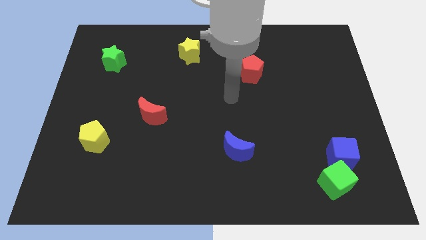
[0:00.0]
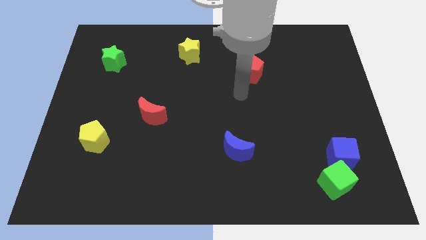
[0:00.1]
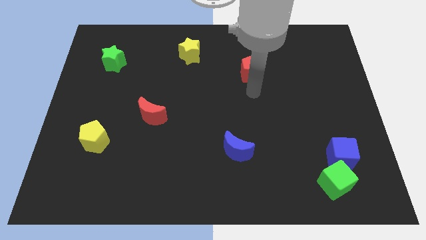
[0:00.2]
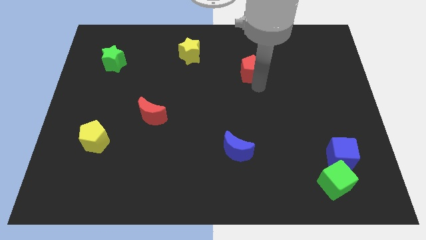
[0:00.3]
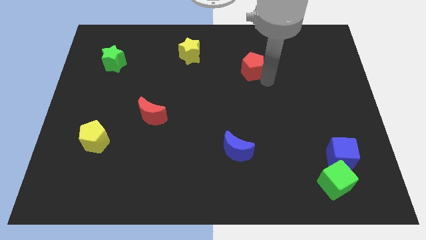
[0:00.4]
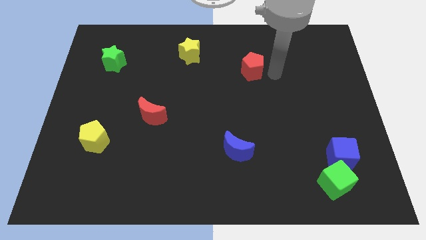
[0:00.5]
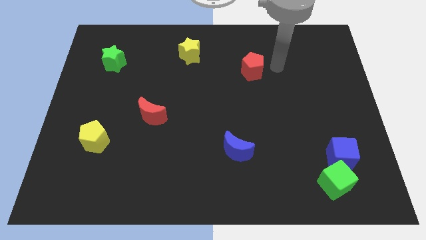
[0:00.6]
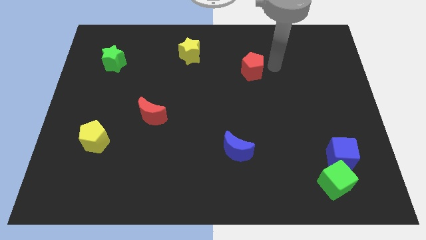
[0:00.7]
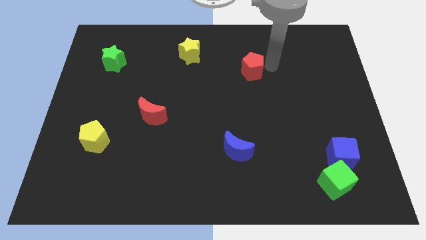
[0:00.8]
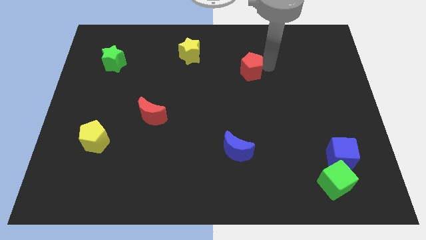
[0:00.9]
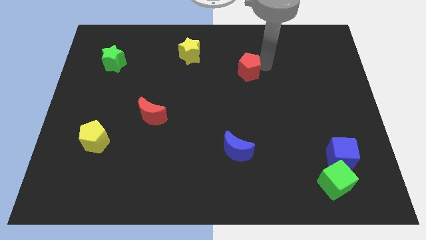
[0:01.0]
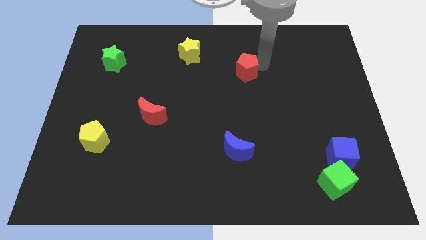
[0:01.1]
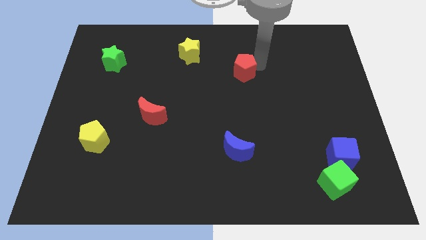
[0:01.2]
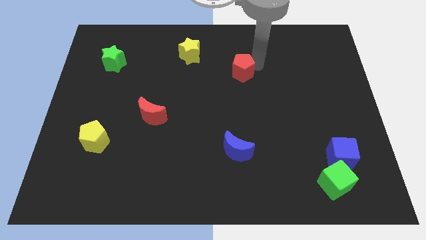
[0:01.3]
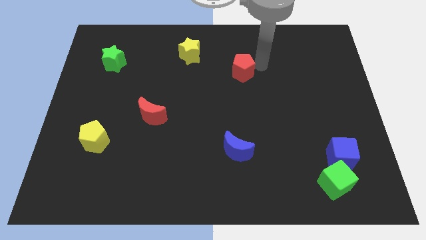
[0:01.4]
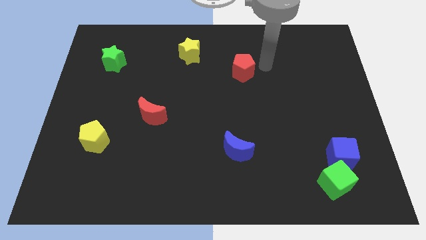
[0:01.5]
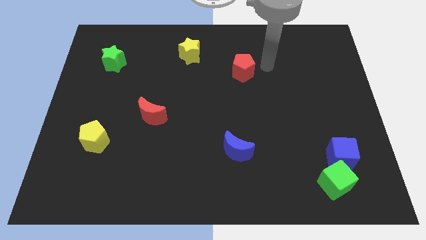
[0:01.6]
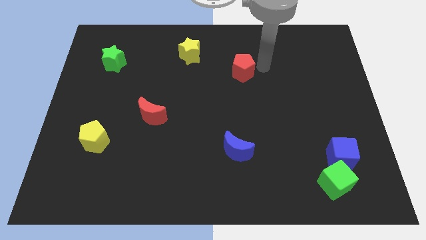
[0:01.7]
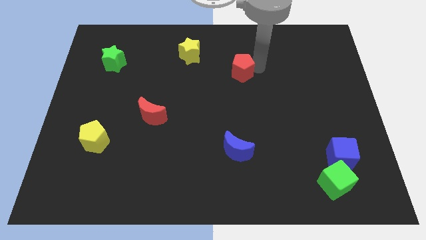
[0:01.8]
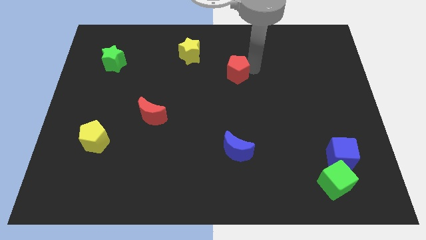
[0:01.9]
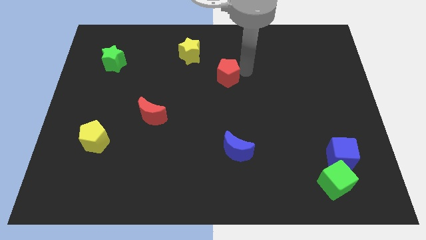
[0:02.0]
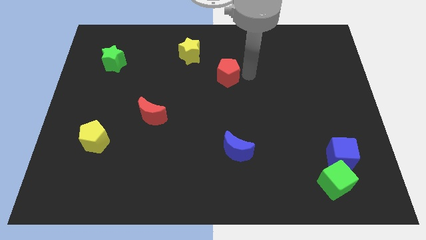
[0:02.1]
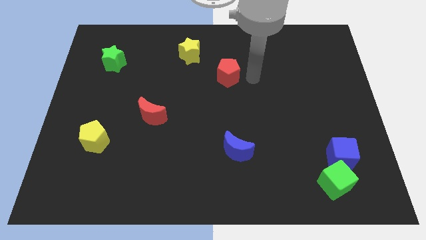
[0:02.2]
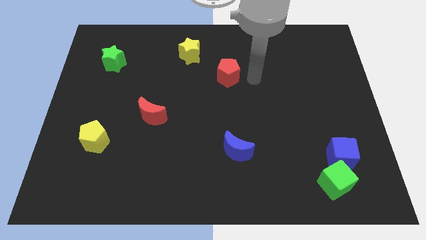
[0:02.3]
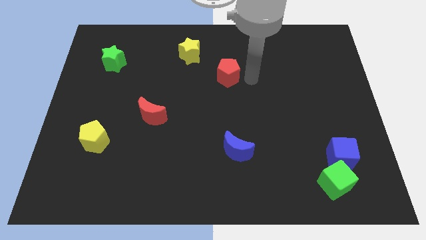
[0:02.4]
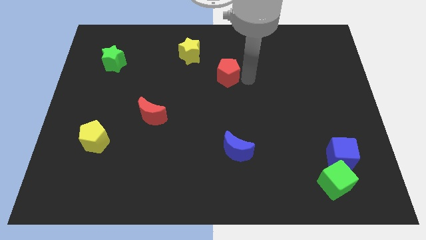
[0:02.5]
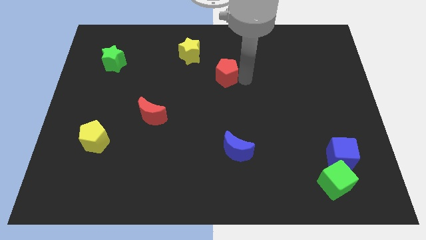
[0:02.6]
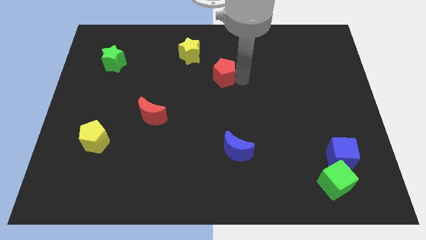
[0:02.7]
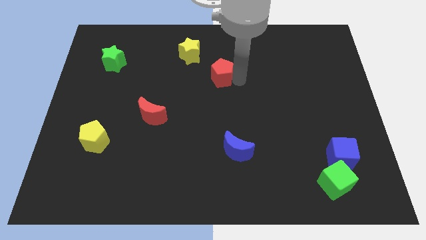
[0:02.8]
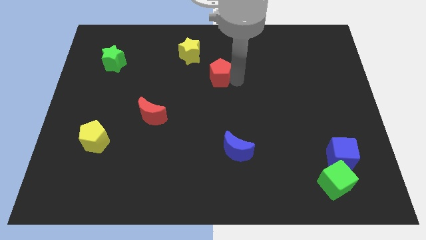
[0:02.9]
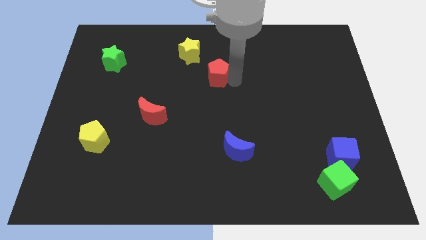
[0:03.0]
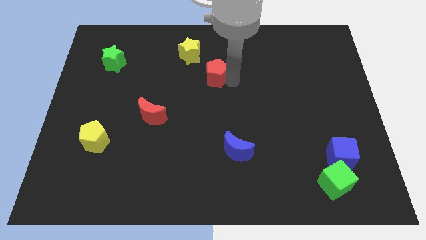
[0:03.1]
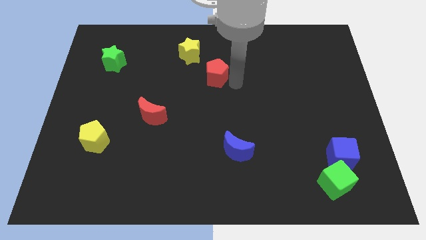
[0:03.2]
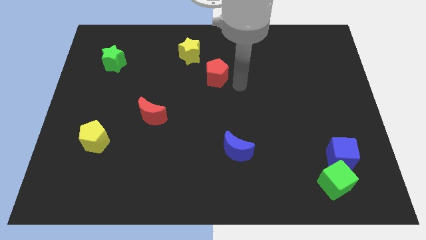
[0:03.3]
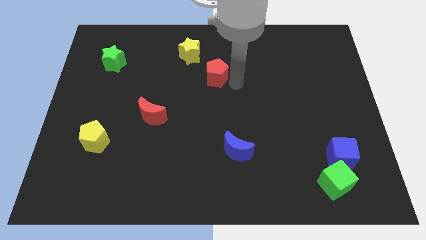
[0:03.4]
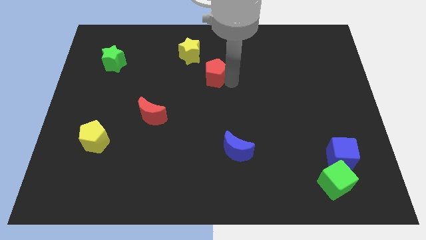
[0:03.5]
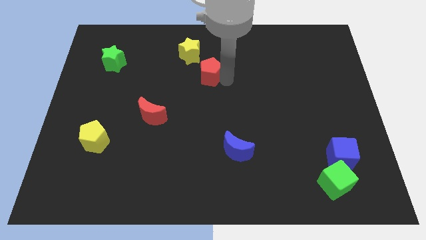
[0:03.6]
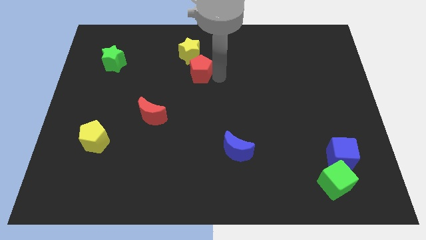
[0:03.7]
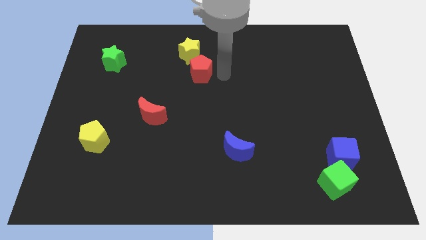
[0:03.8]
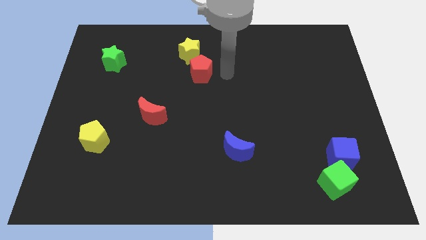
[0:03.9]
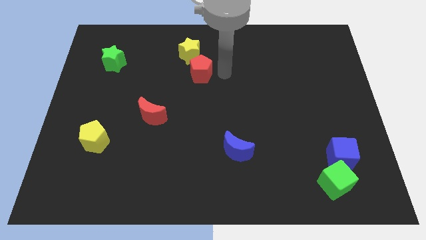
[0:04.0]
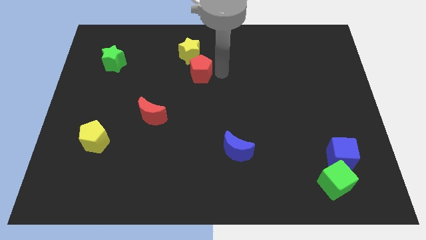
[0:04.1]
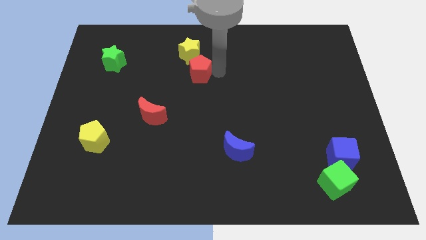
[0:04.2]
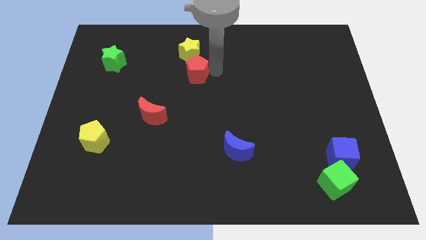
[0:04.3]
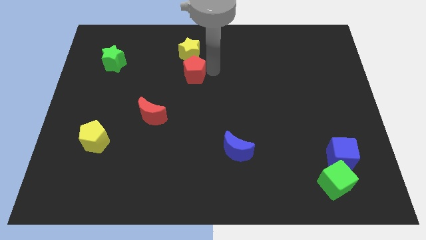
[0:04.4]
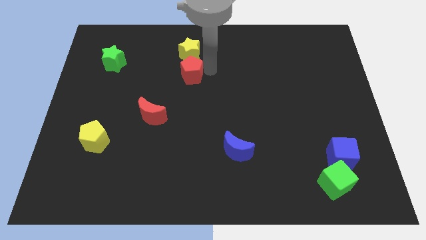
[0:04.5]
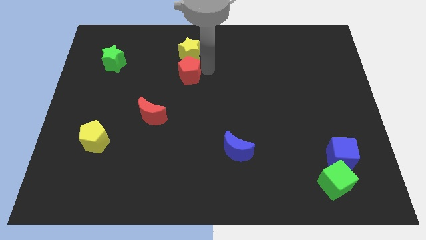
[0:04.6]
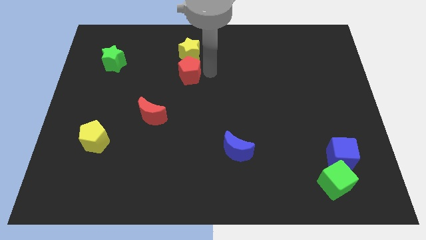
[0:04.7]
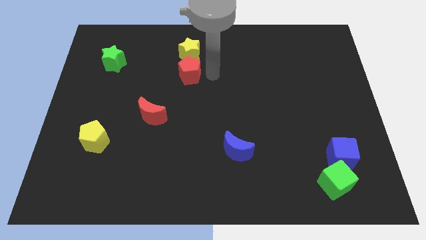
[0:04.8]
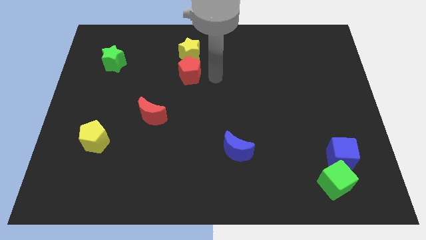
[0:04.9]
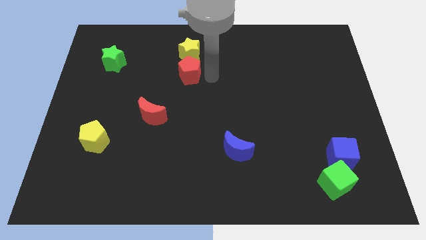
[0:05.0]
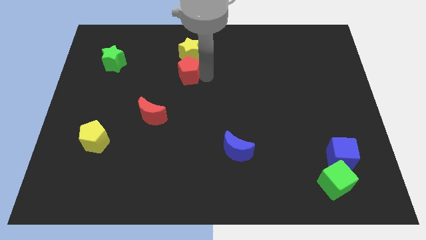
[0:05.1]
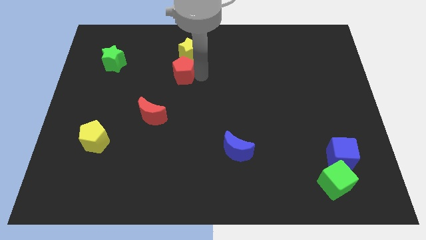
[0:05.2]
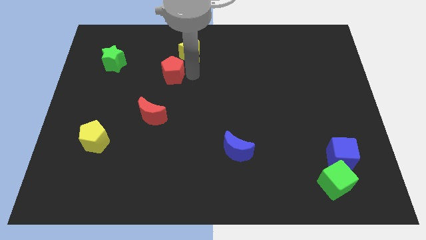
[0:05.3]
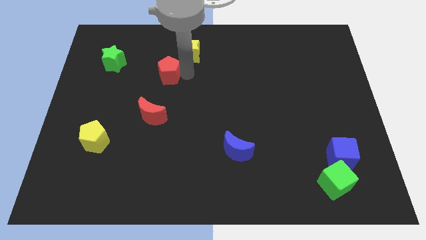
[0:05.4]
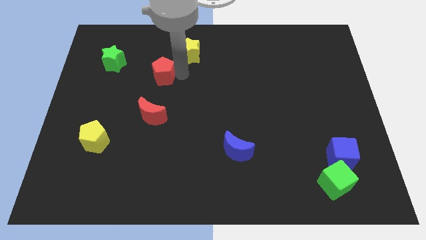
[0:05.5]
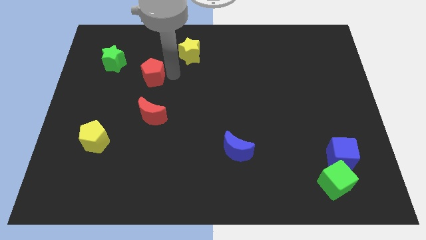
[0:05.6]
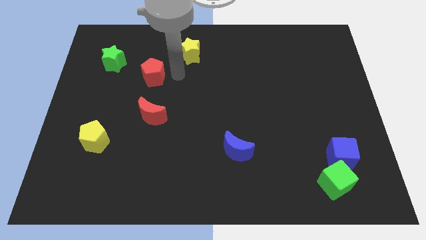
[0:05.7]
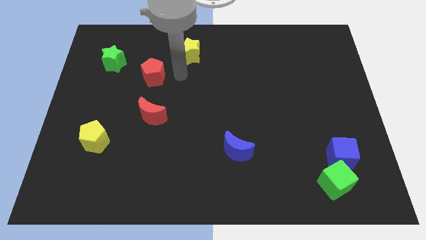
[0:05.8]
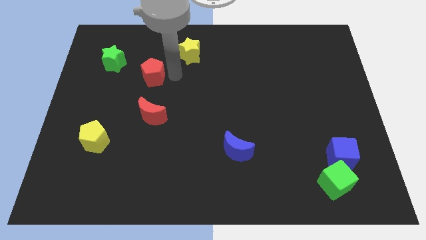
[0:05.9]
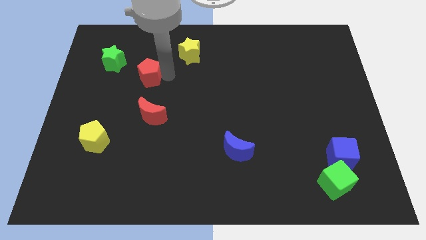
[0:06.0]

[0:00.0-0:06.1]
move the red pentagon diagonally down and to the right of the green star
